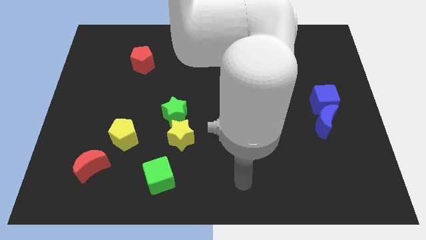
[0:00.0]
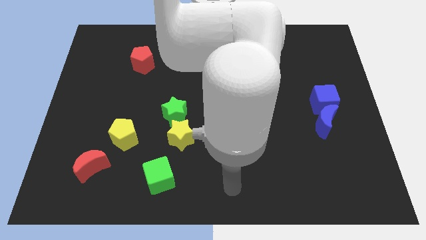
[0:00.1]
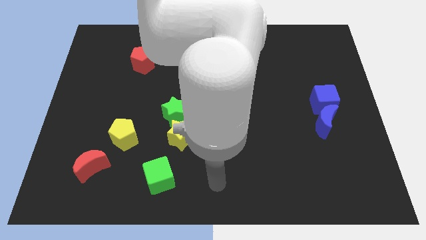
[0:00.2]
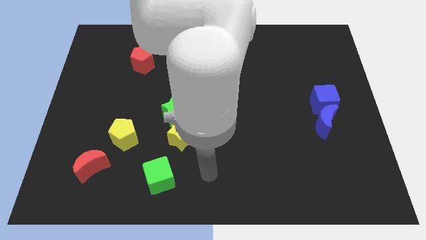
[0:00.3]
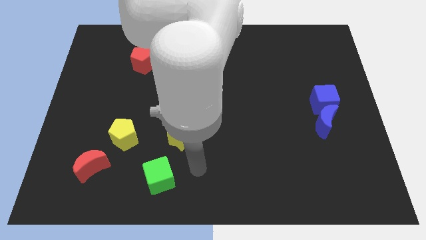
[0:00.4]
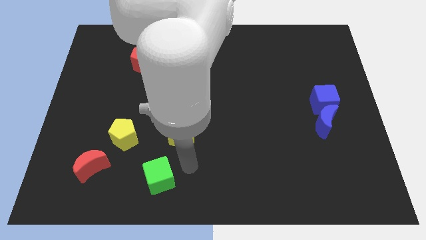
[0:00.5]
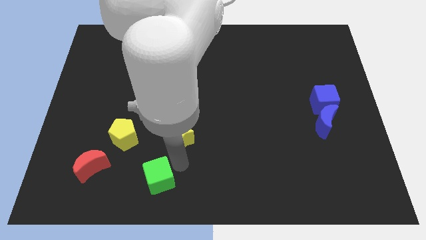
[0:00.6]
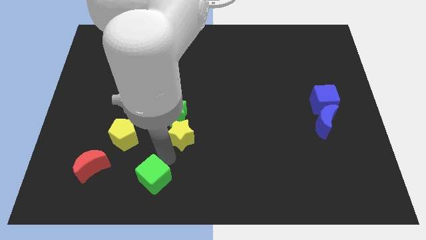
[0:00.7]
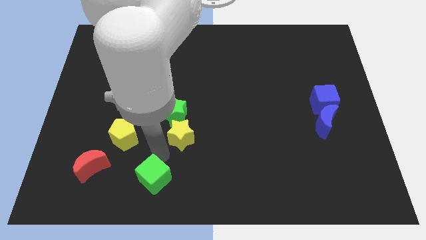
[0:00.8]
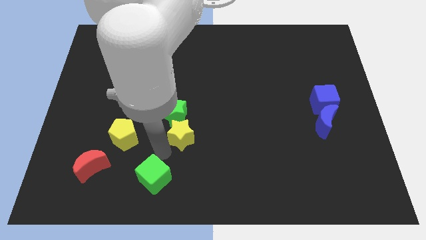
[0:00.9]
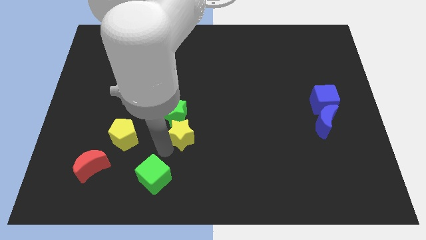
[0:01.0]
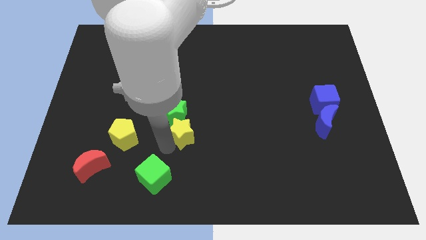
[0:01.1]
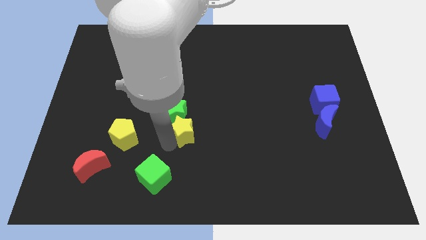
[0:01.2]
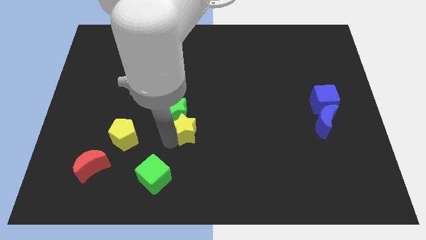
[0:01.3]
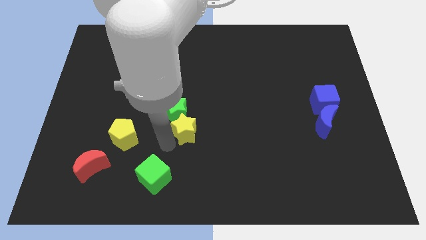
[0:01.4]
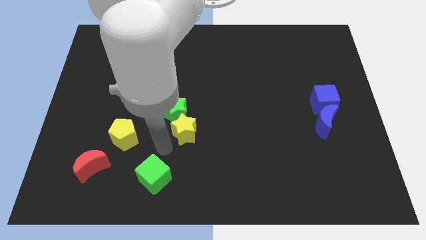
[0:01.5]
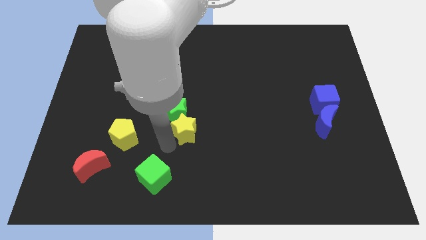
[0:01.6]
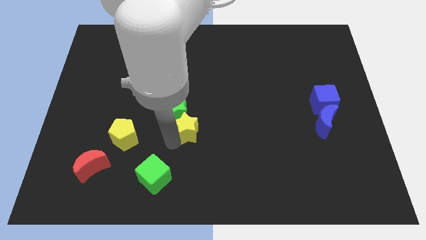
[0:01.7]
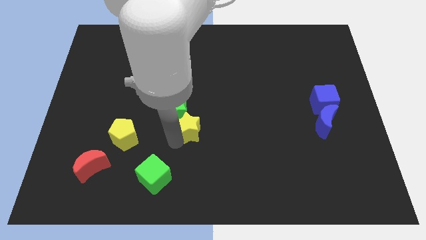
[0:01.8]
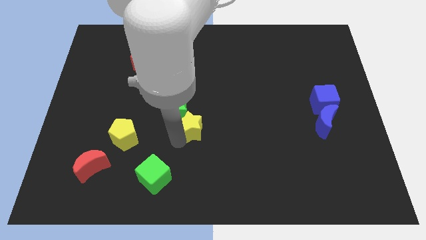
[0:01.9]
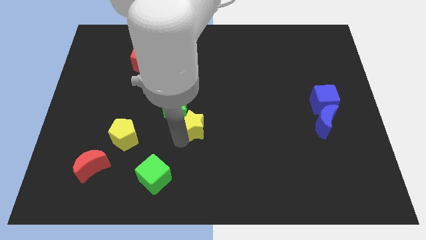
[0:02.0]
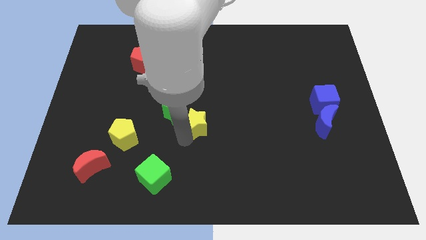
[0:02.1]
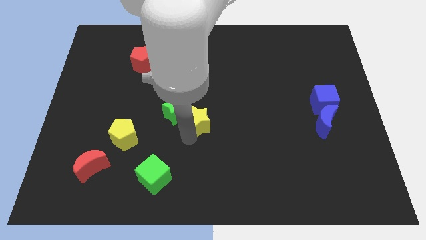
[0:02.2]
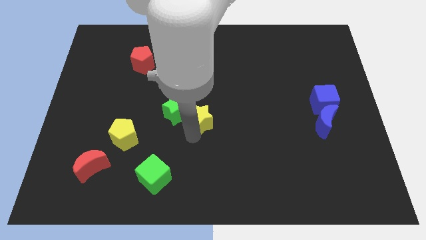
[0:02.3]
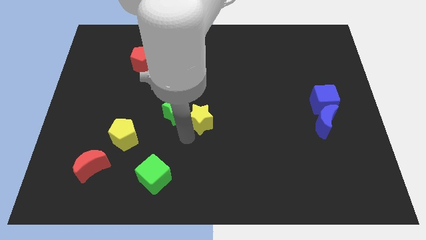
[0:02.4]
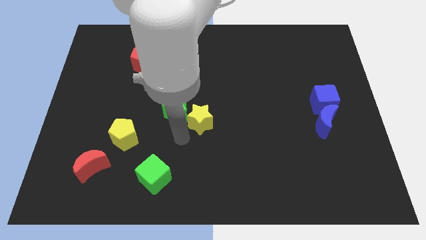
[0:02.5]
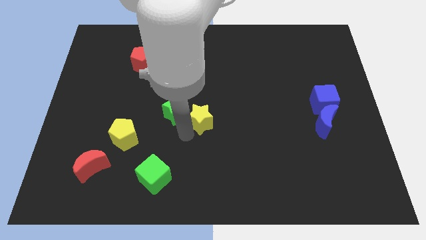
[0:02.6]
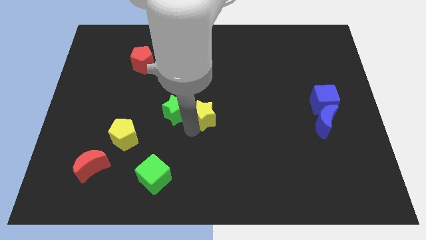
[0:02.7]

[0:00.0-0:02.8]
slide the yellow star up and then right slightly

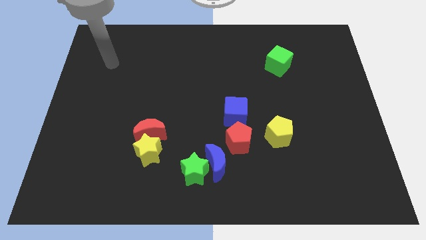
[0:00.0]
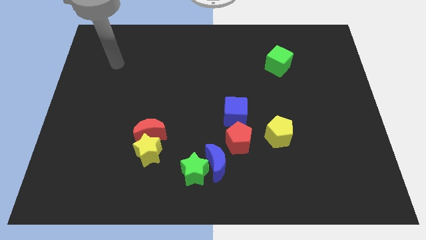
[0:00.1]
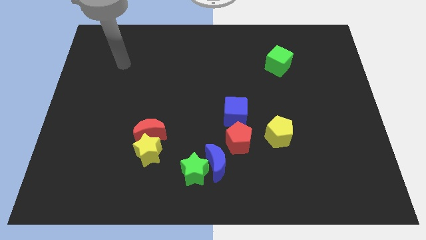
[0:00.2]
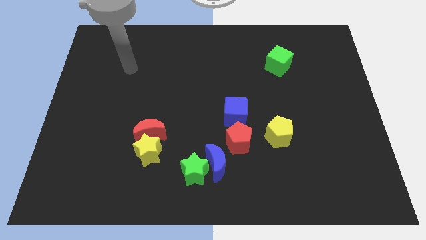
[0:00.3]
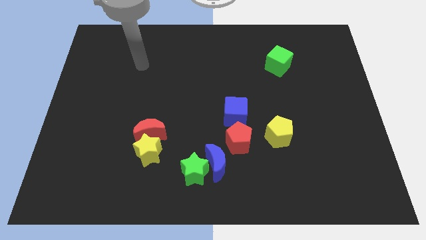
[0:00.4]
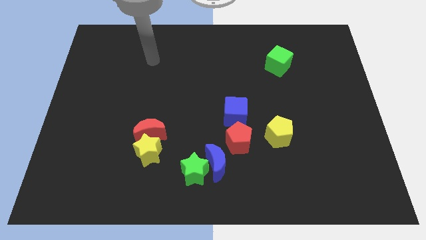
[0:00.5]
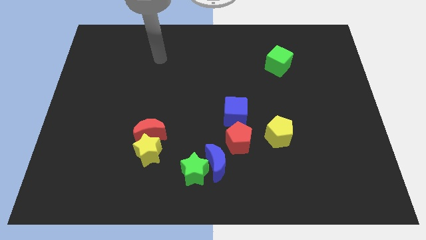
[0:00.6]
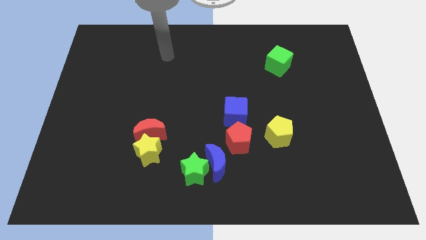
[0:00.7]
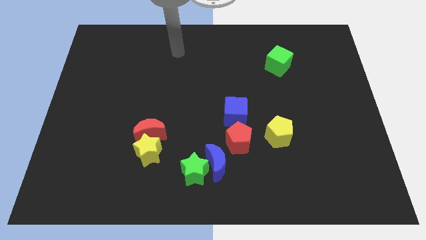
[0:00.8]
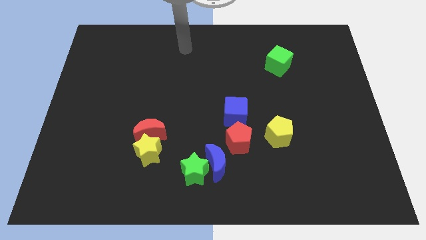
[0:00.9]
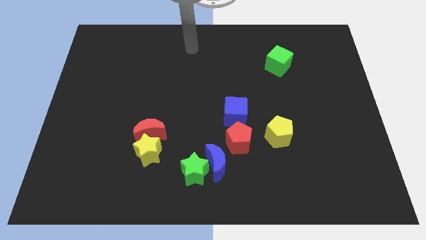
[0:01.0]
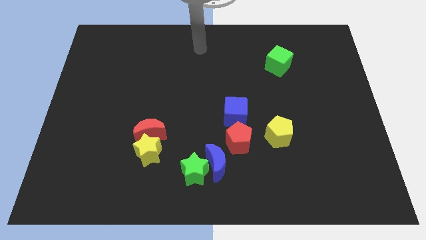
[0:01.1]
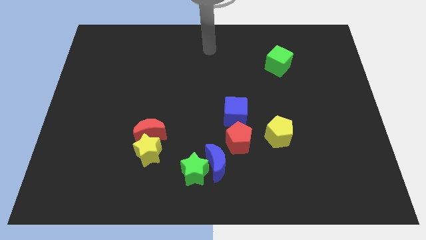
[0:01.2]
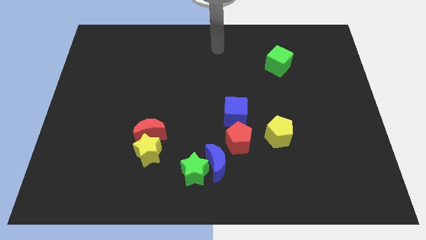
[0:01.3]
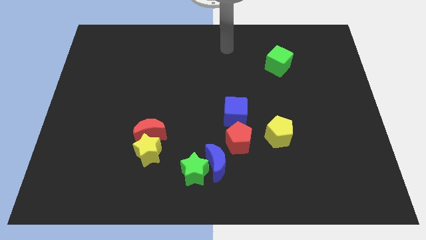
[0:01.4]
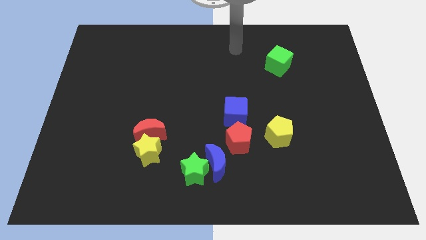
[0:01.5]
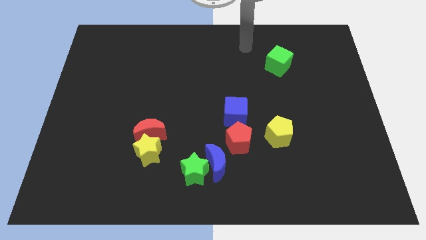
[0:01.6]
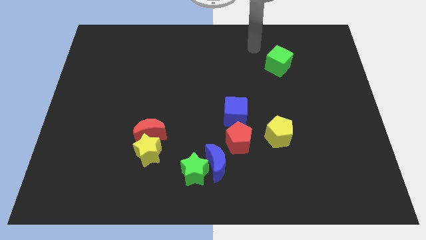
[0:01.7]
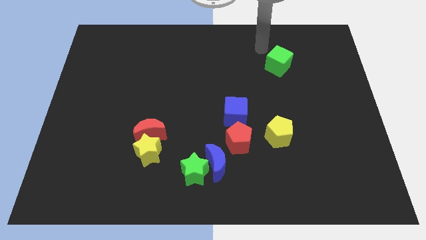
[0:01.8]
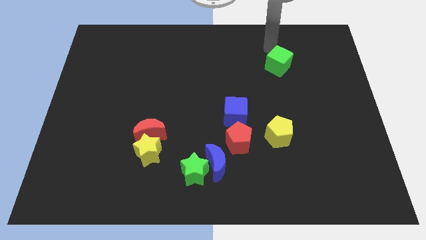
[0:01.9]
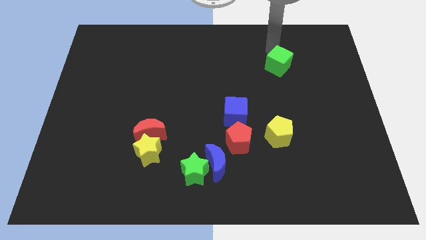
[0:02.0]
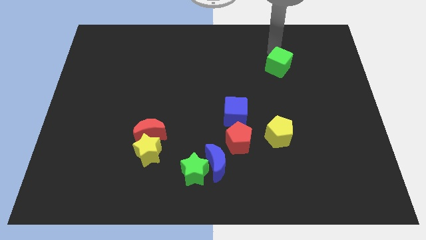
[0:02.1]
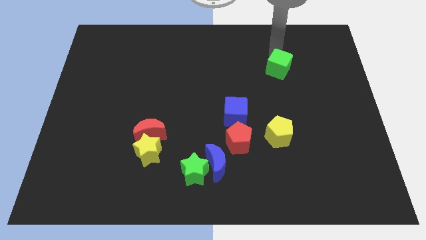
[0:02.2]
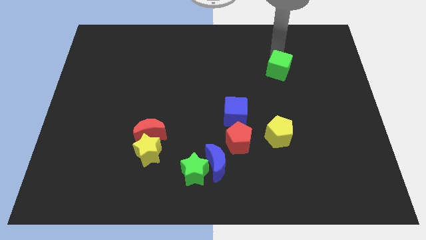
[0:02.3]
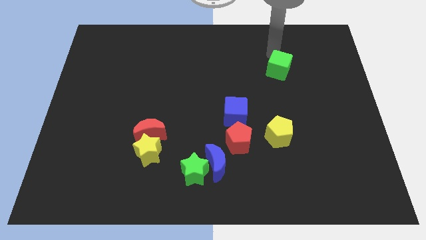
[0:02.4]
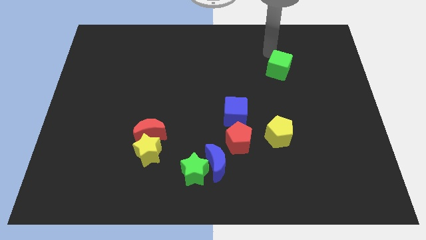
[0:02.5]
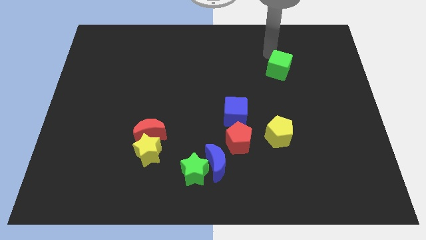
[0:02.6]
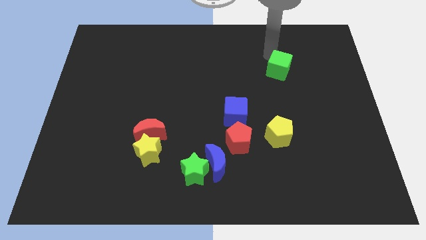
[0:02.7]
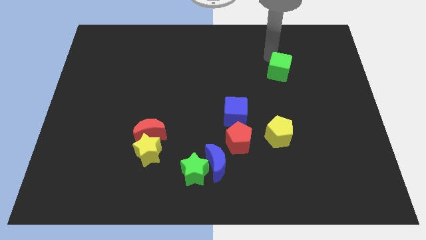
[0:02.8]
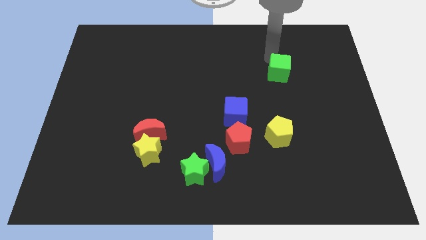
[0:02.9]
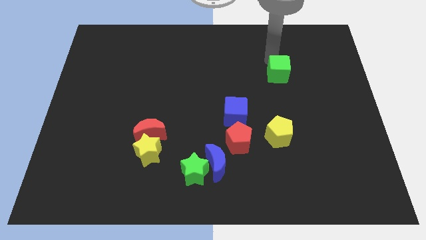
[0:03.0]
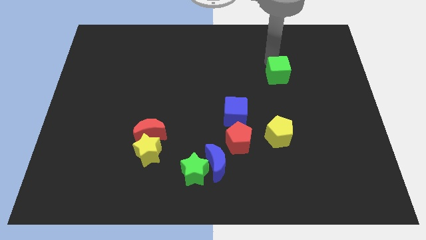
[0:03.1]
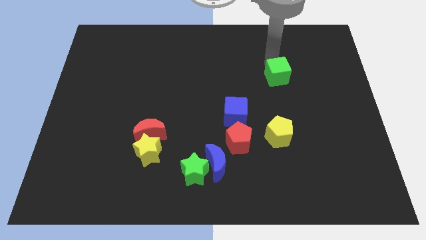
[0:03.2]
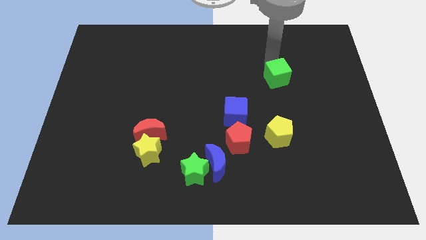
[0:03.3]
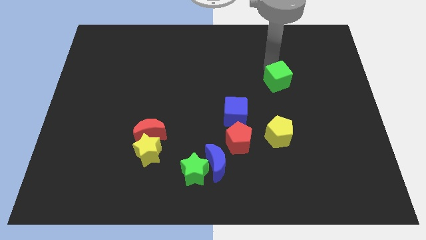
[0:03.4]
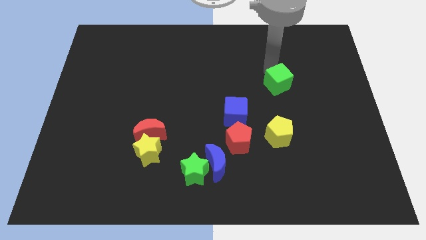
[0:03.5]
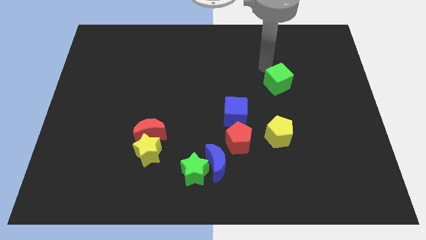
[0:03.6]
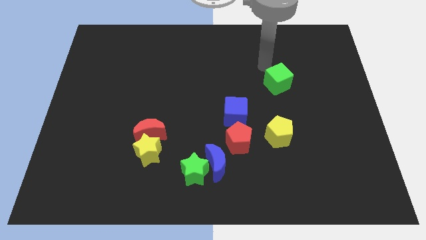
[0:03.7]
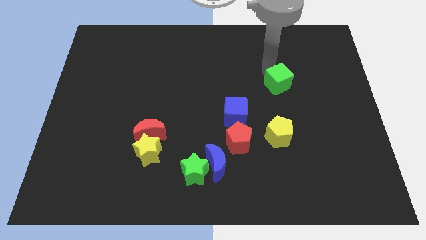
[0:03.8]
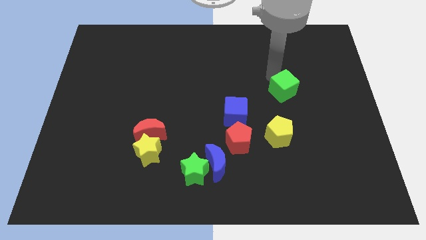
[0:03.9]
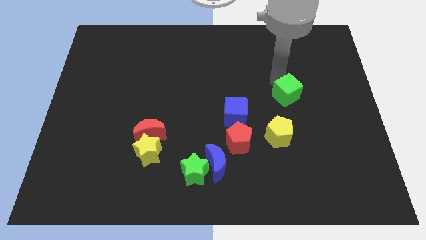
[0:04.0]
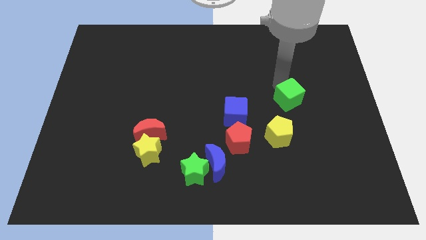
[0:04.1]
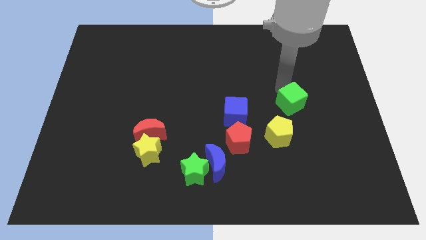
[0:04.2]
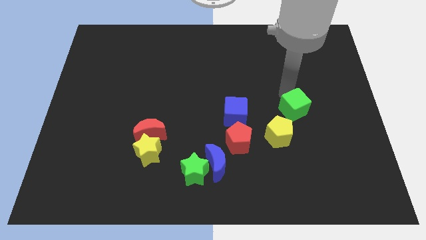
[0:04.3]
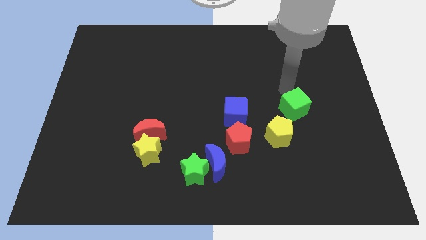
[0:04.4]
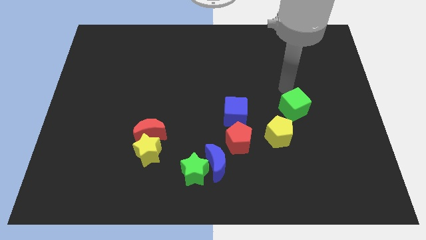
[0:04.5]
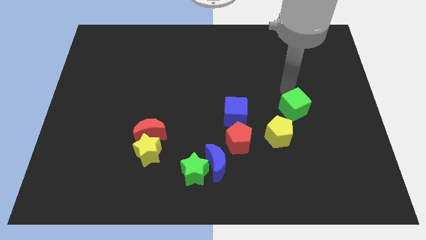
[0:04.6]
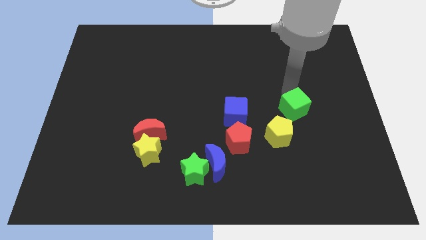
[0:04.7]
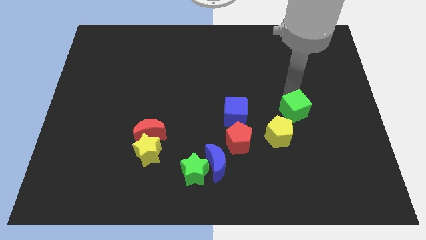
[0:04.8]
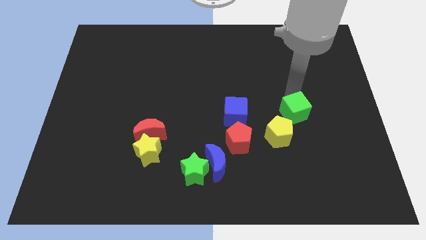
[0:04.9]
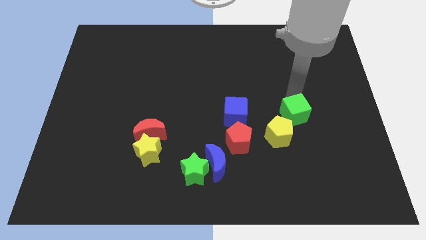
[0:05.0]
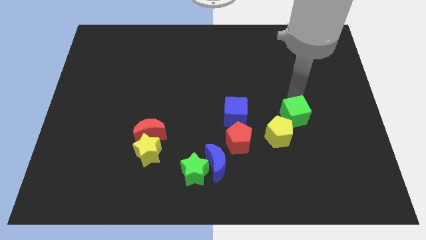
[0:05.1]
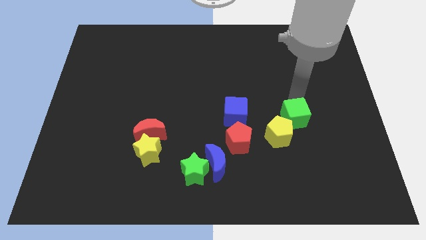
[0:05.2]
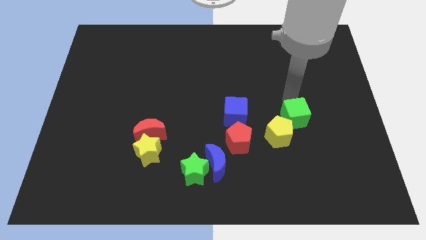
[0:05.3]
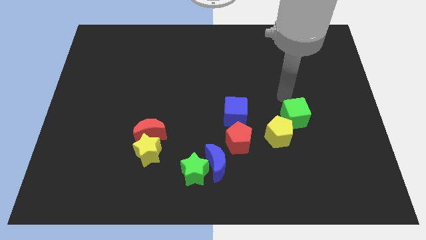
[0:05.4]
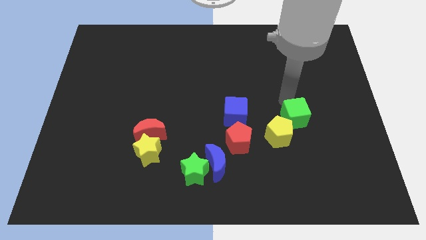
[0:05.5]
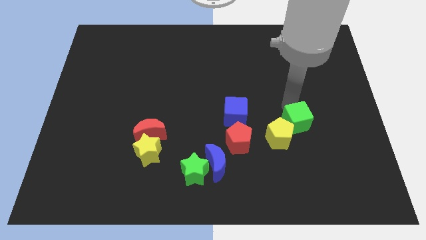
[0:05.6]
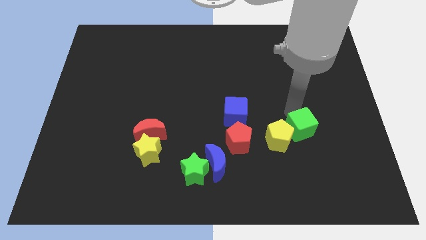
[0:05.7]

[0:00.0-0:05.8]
slide the green cube down
